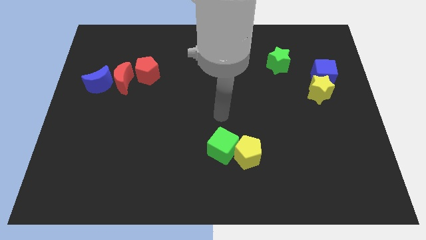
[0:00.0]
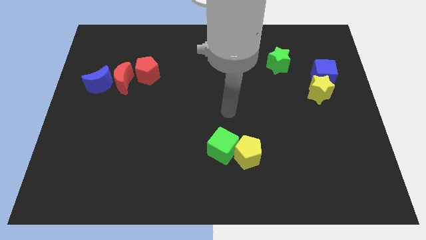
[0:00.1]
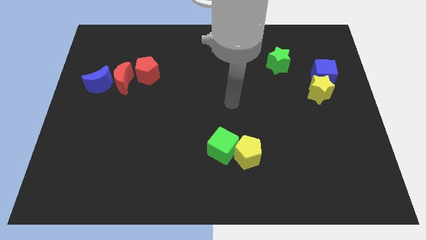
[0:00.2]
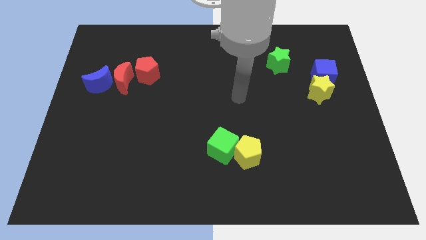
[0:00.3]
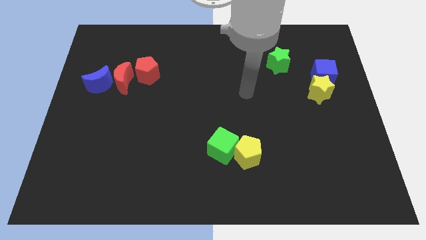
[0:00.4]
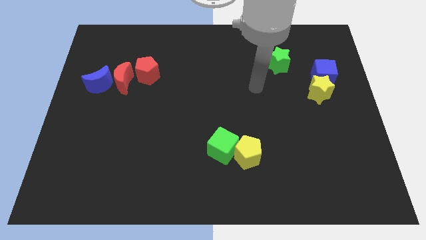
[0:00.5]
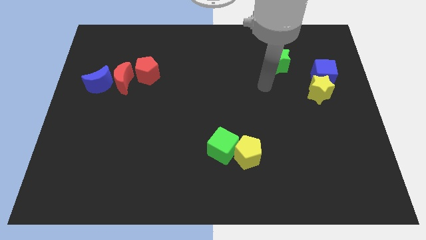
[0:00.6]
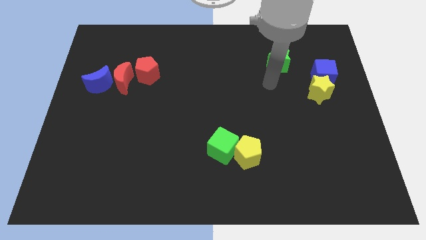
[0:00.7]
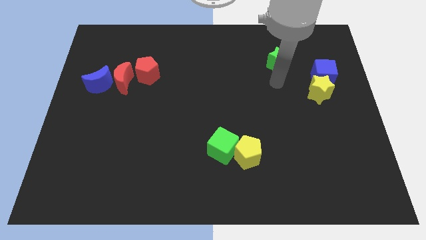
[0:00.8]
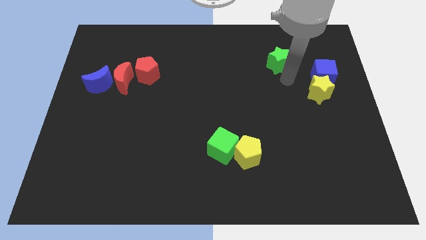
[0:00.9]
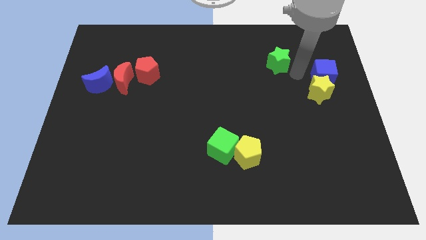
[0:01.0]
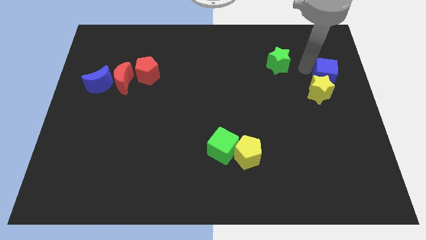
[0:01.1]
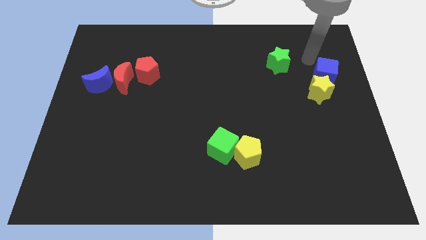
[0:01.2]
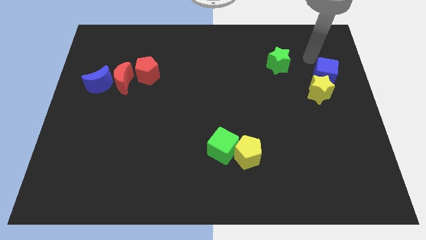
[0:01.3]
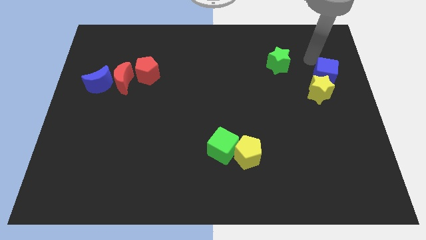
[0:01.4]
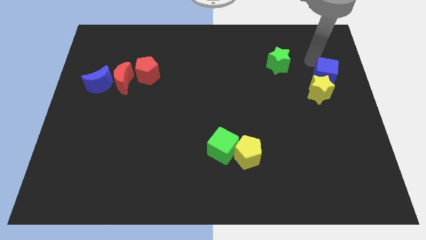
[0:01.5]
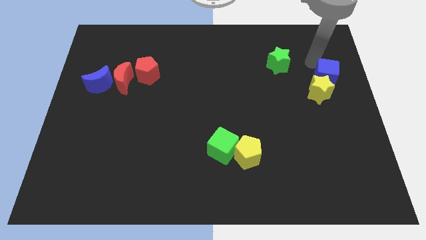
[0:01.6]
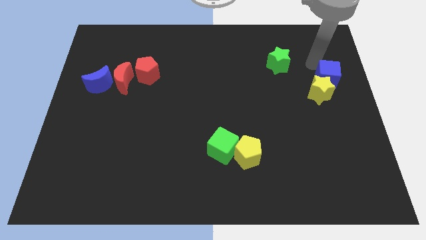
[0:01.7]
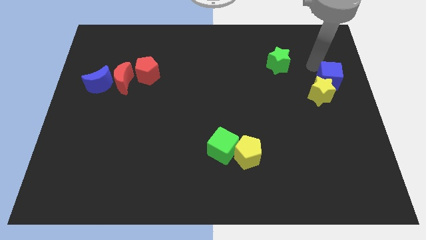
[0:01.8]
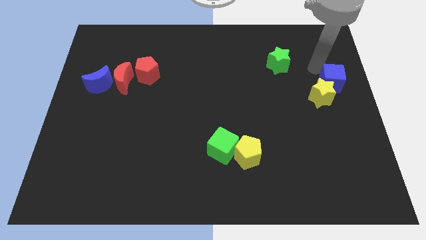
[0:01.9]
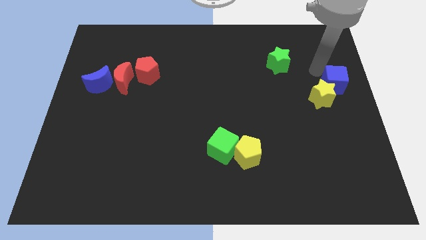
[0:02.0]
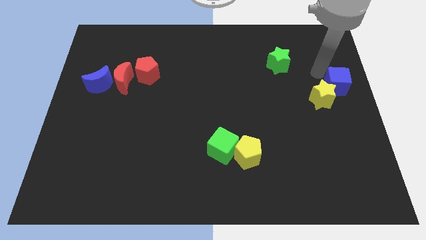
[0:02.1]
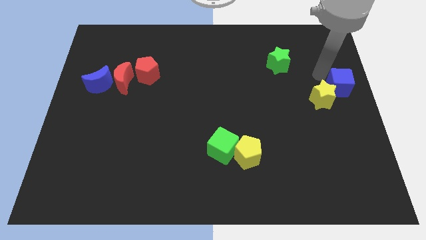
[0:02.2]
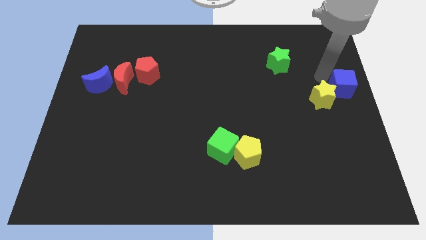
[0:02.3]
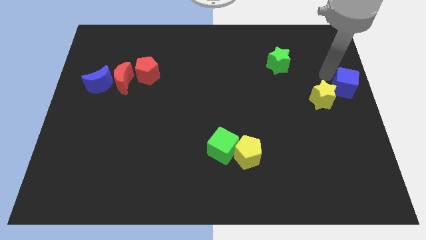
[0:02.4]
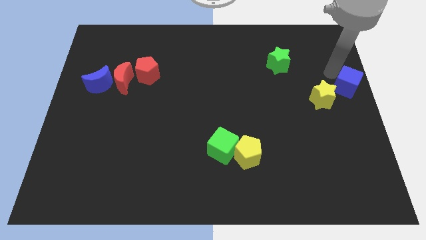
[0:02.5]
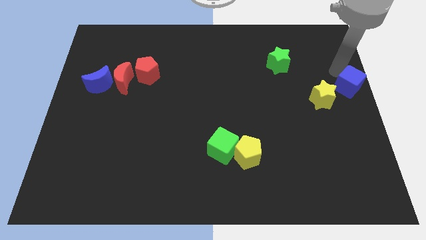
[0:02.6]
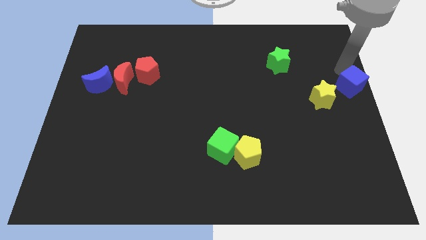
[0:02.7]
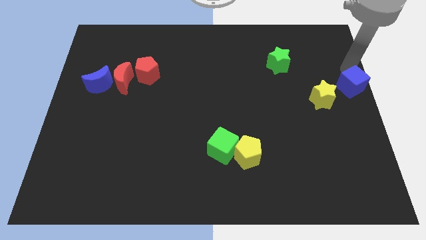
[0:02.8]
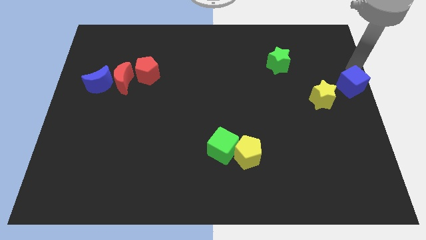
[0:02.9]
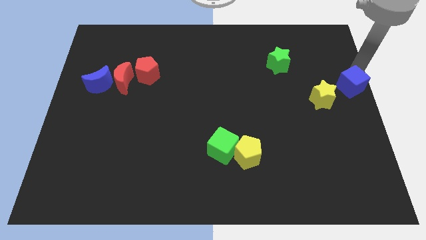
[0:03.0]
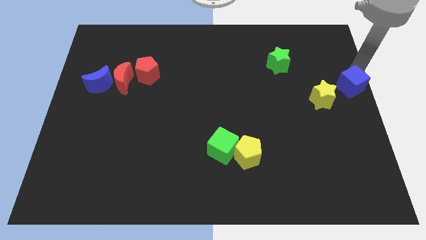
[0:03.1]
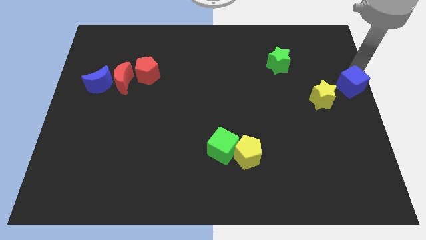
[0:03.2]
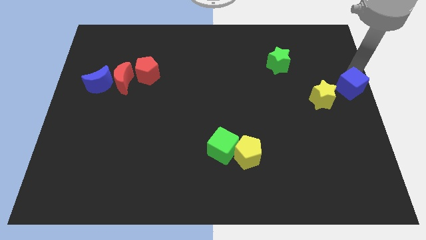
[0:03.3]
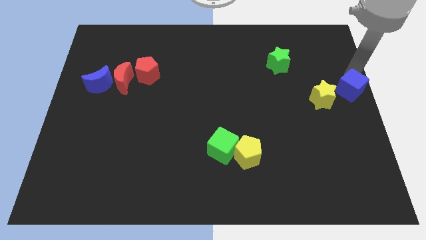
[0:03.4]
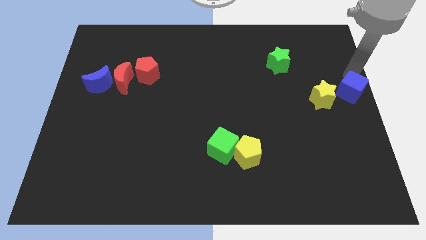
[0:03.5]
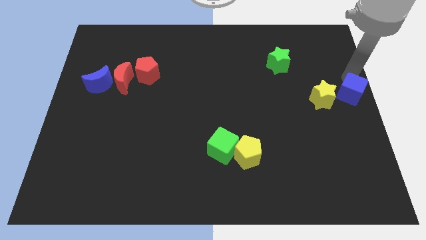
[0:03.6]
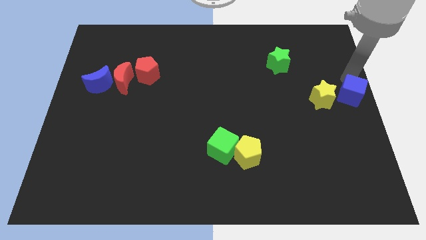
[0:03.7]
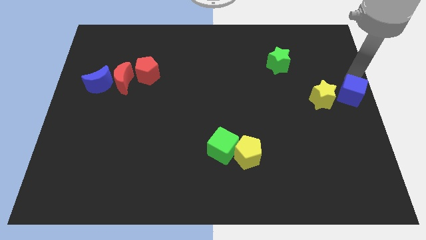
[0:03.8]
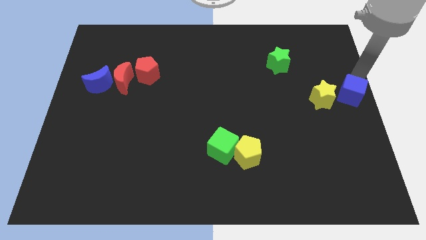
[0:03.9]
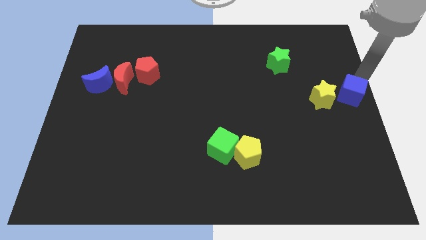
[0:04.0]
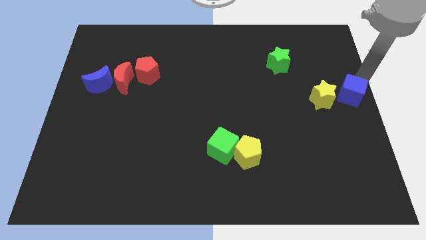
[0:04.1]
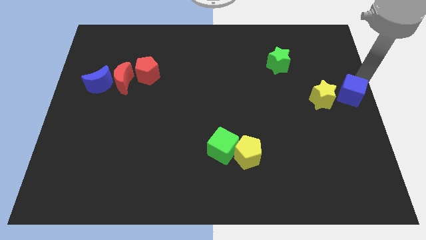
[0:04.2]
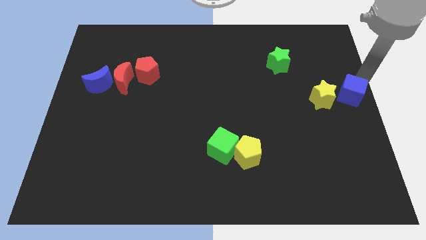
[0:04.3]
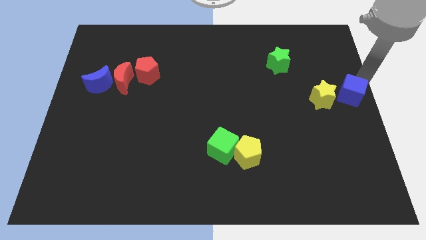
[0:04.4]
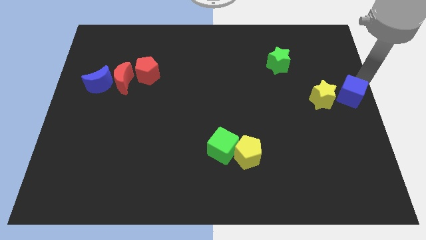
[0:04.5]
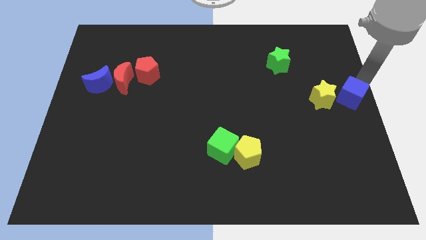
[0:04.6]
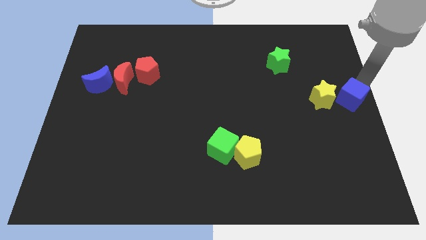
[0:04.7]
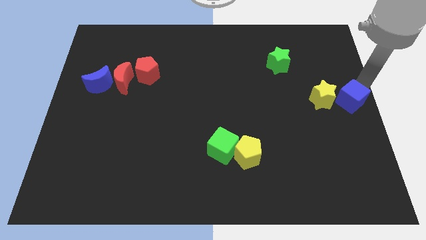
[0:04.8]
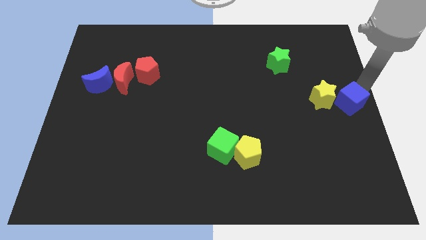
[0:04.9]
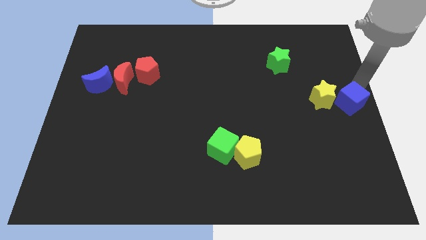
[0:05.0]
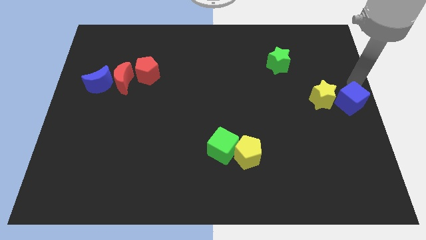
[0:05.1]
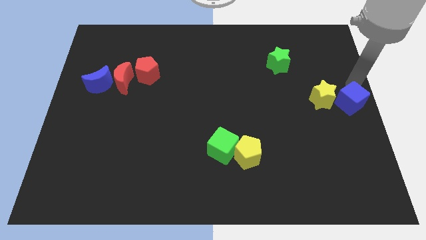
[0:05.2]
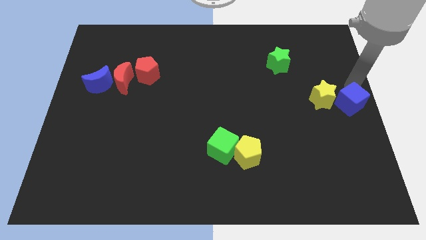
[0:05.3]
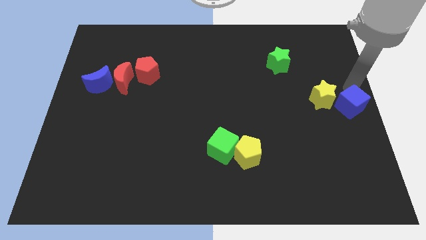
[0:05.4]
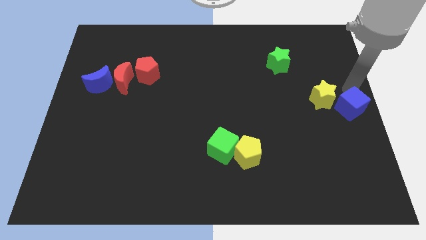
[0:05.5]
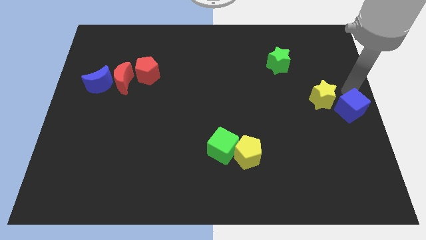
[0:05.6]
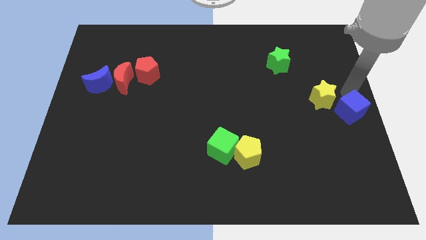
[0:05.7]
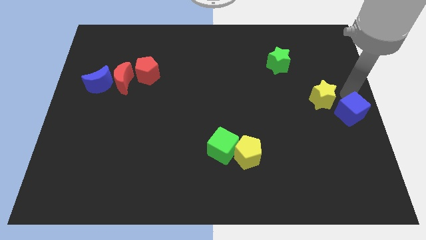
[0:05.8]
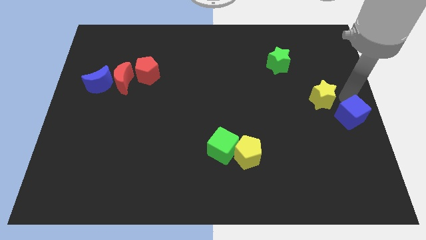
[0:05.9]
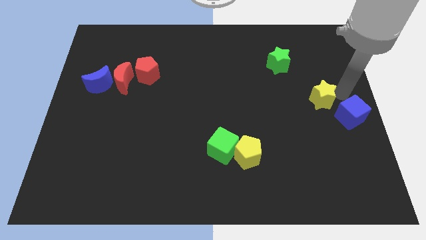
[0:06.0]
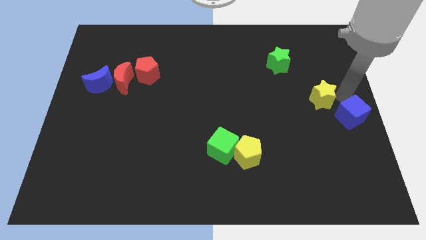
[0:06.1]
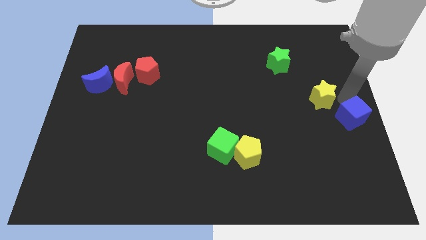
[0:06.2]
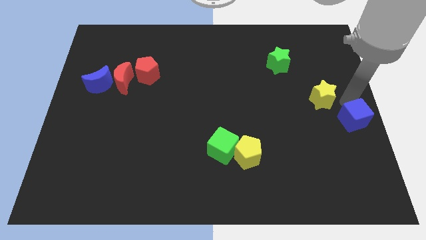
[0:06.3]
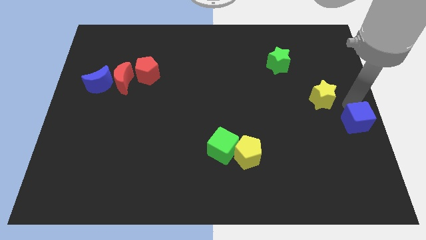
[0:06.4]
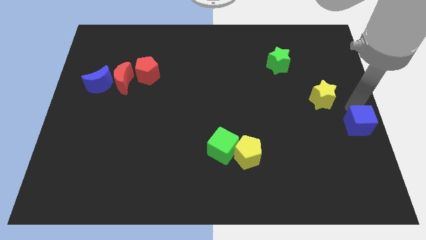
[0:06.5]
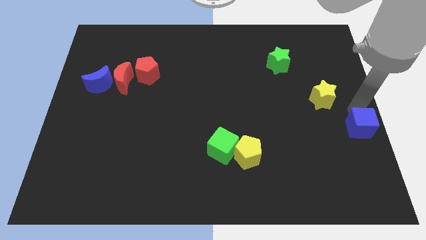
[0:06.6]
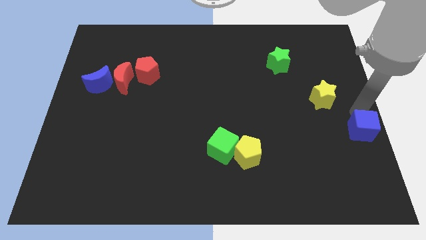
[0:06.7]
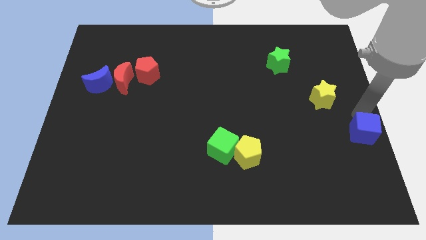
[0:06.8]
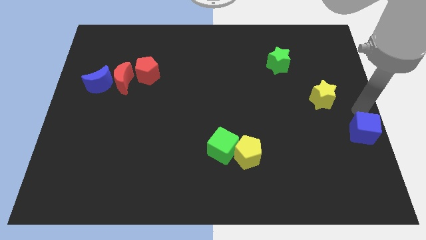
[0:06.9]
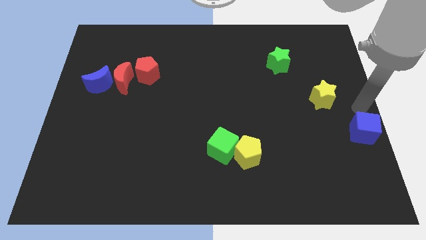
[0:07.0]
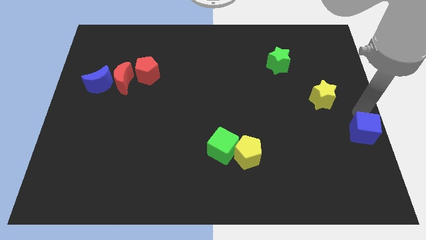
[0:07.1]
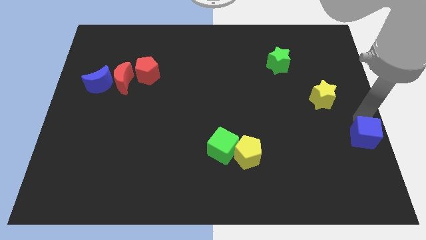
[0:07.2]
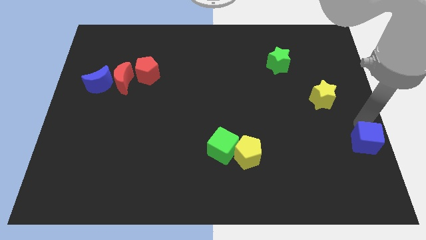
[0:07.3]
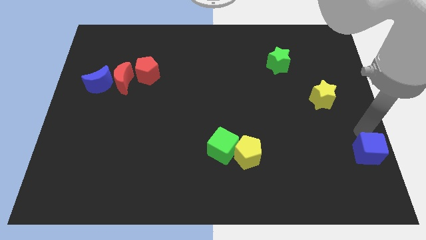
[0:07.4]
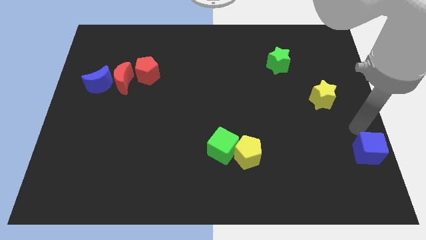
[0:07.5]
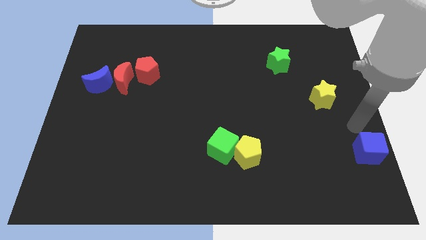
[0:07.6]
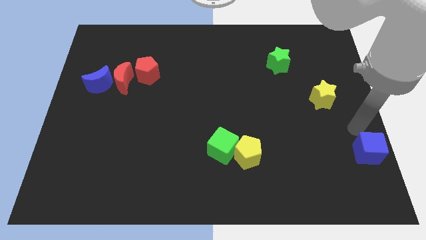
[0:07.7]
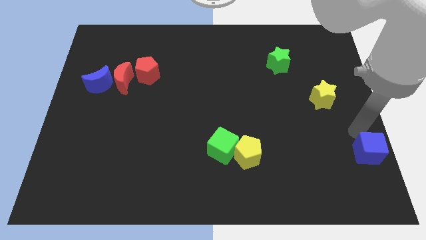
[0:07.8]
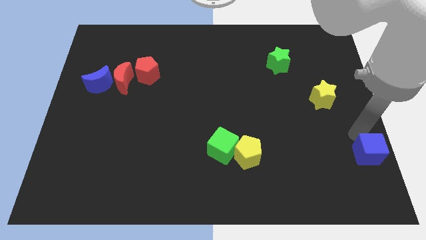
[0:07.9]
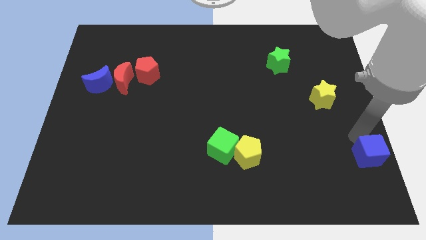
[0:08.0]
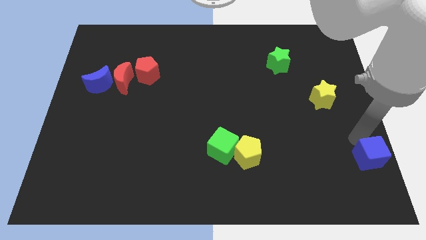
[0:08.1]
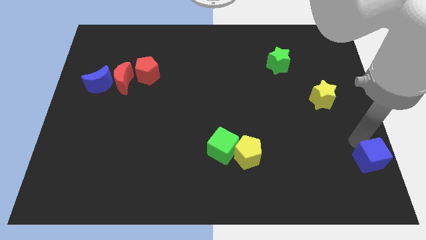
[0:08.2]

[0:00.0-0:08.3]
slide the blue cube to the bottom right of the board
